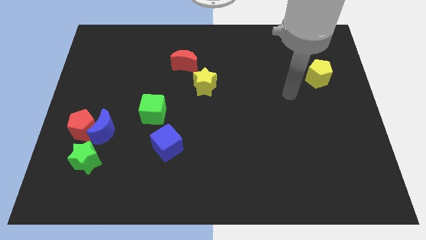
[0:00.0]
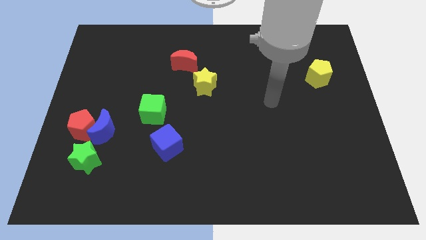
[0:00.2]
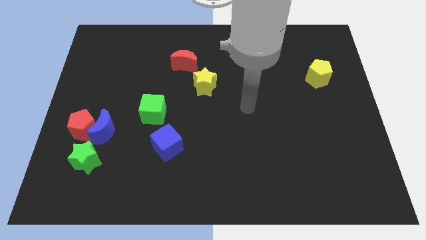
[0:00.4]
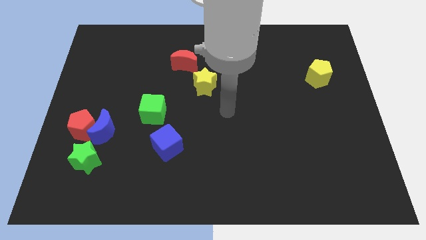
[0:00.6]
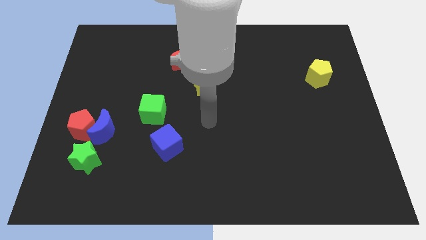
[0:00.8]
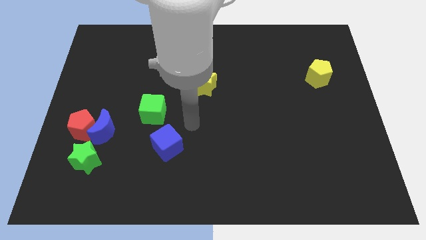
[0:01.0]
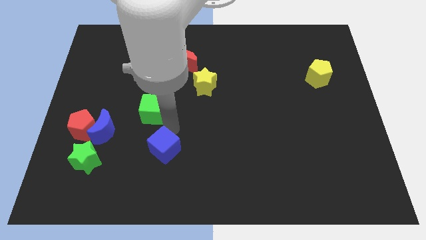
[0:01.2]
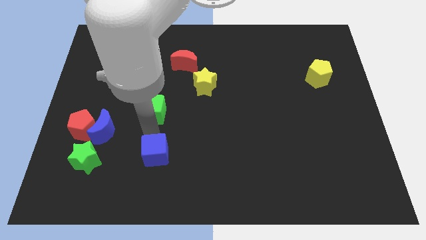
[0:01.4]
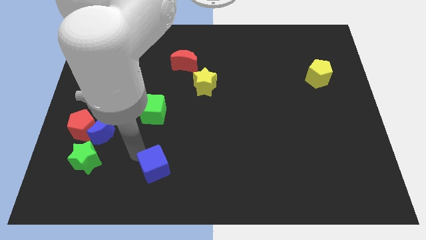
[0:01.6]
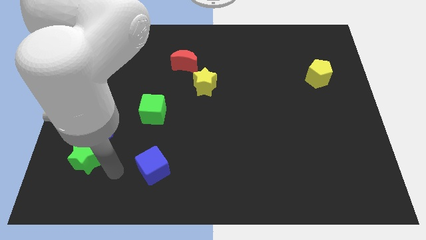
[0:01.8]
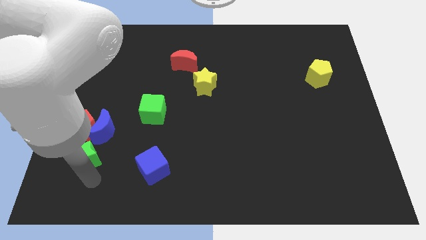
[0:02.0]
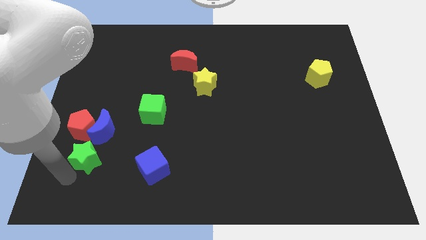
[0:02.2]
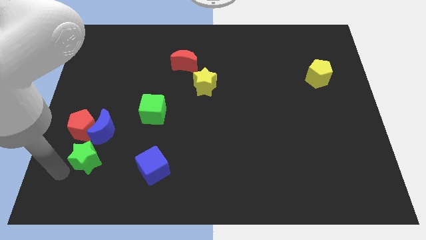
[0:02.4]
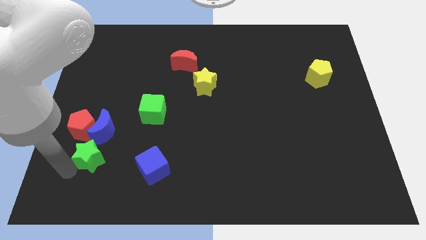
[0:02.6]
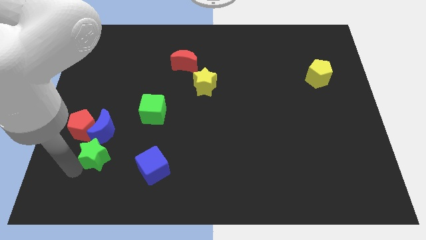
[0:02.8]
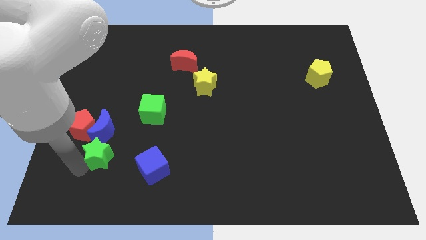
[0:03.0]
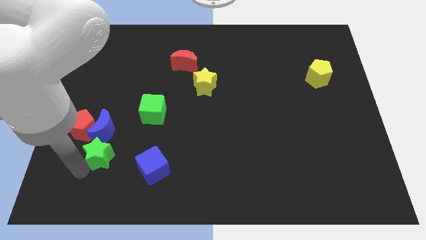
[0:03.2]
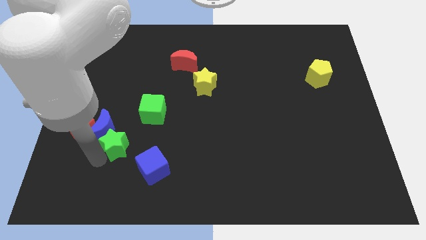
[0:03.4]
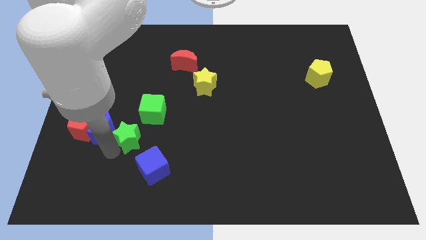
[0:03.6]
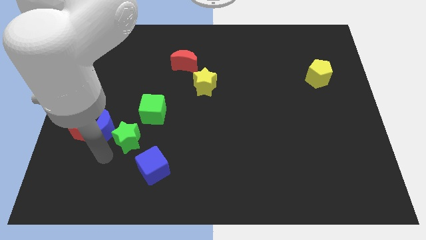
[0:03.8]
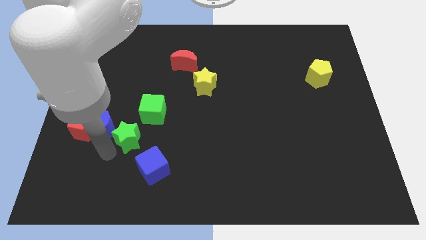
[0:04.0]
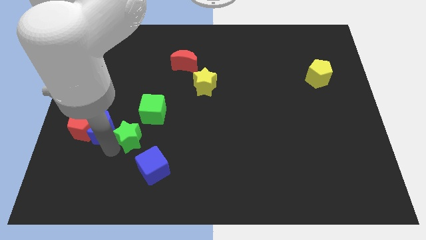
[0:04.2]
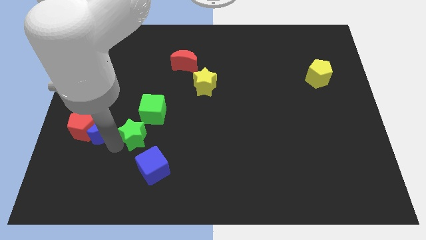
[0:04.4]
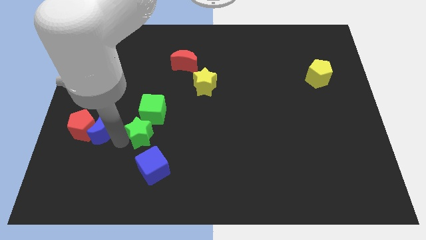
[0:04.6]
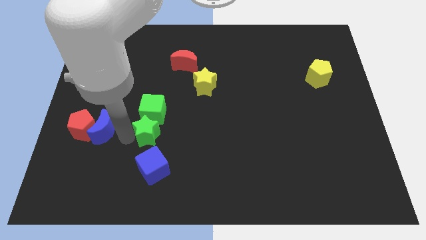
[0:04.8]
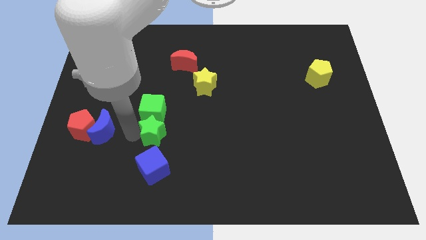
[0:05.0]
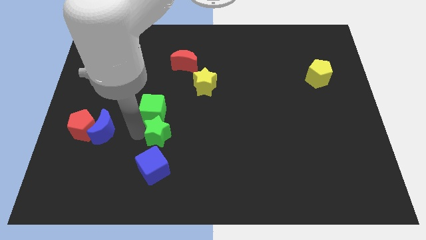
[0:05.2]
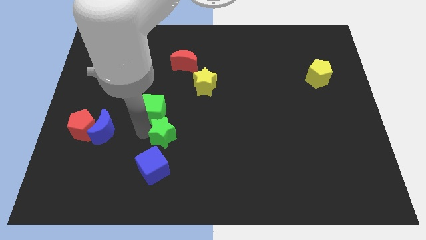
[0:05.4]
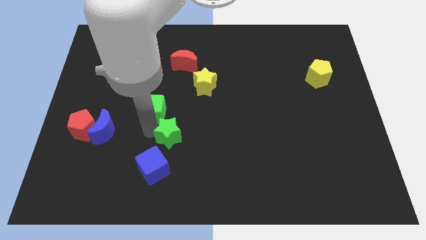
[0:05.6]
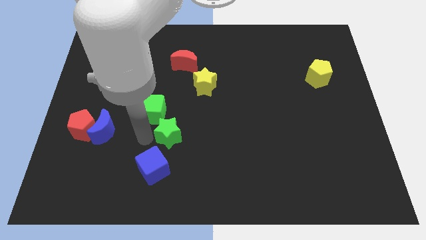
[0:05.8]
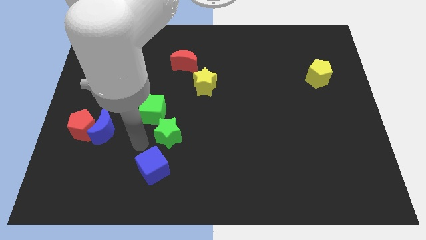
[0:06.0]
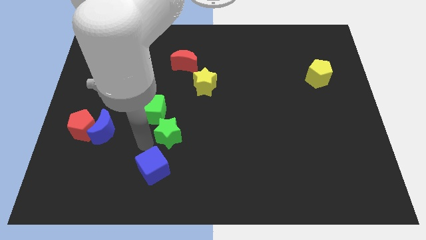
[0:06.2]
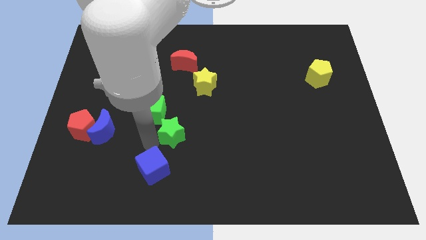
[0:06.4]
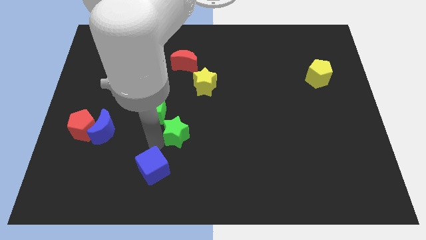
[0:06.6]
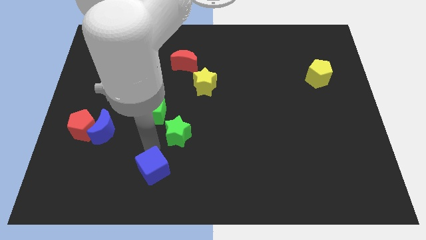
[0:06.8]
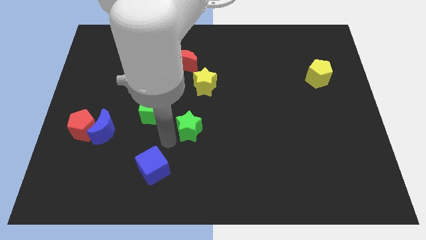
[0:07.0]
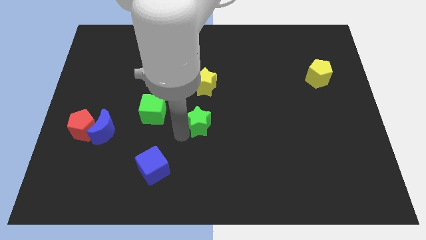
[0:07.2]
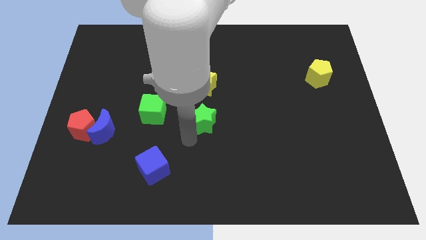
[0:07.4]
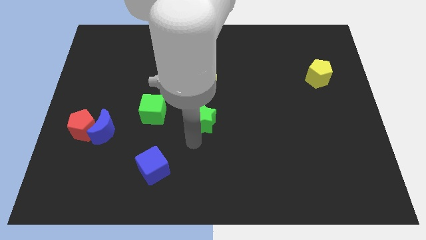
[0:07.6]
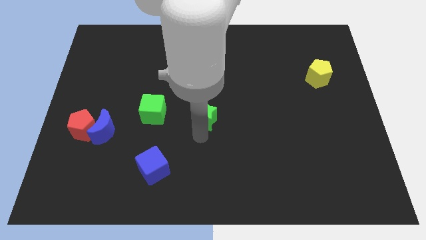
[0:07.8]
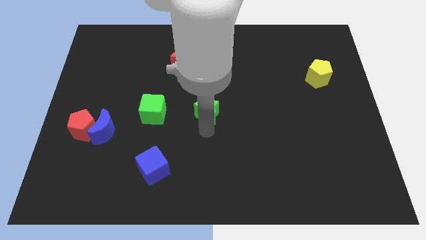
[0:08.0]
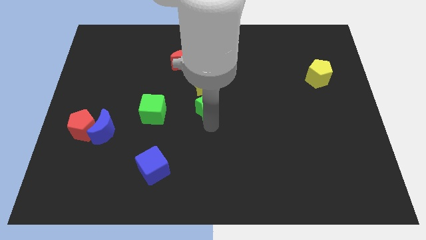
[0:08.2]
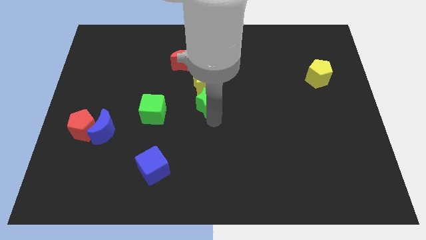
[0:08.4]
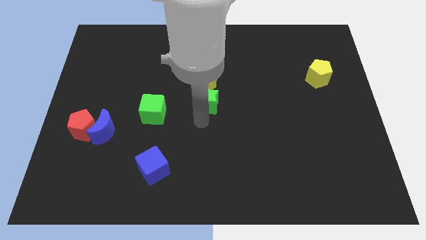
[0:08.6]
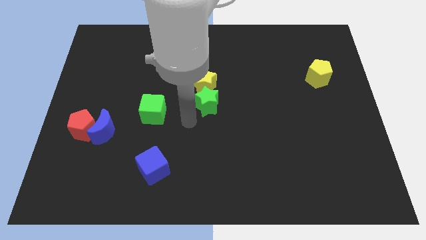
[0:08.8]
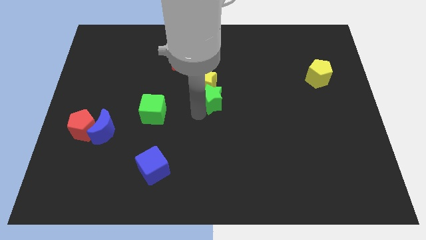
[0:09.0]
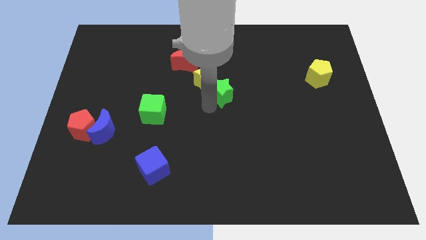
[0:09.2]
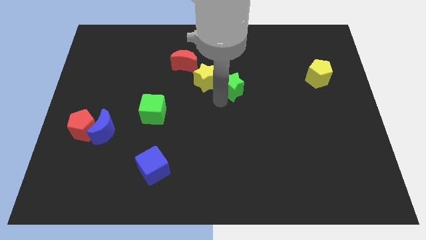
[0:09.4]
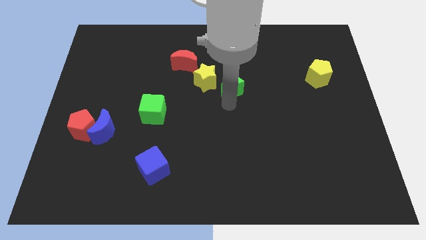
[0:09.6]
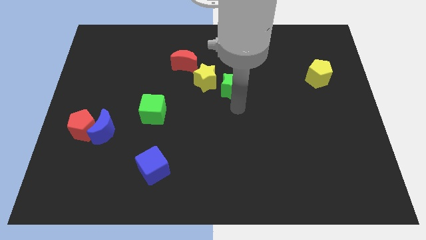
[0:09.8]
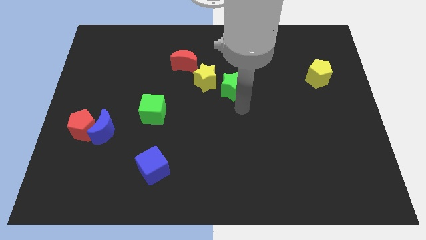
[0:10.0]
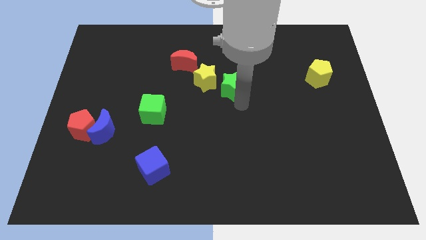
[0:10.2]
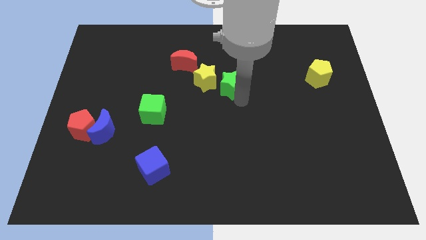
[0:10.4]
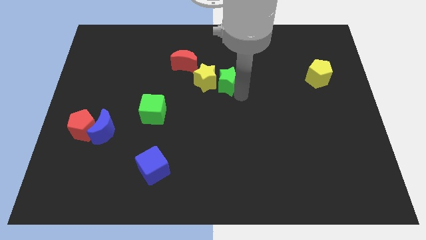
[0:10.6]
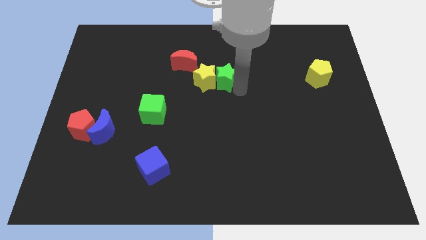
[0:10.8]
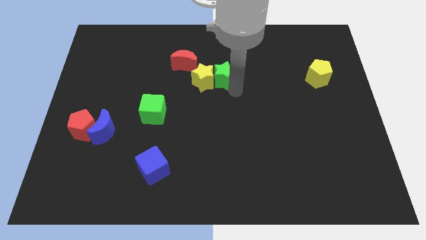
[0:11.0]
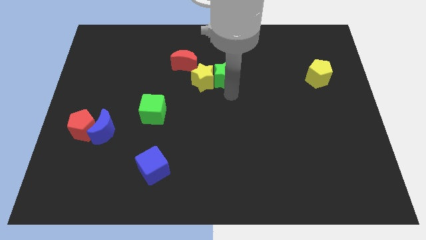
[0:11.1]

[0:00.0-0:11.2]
slide the green star right of the red moon

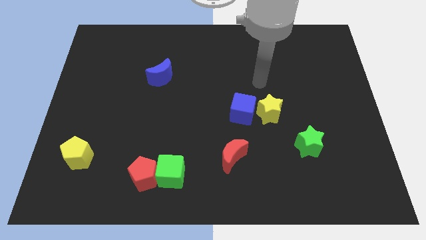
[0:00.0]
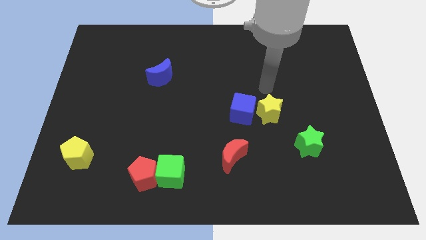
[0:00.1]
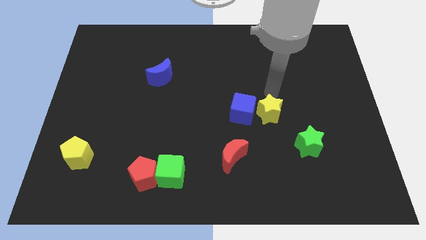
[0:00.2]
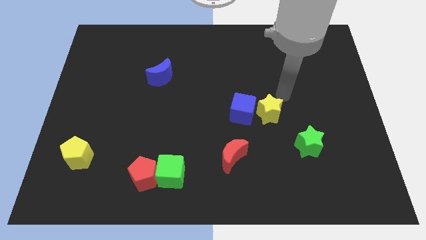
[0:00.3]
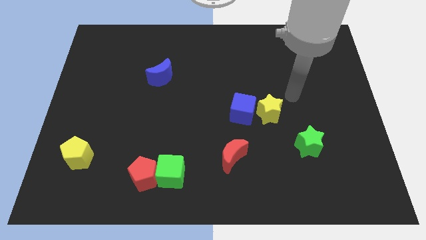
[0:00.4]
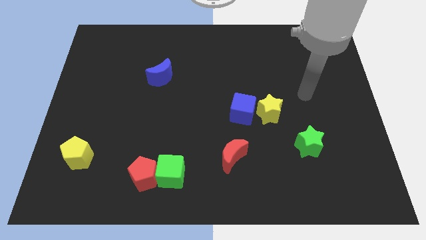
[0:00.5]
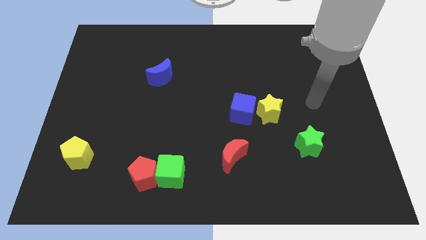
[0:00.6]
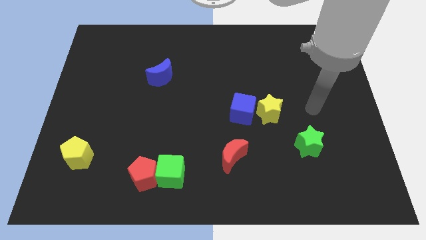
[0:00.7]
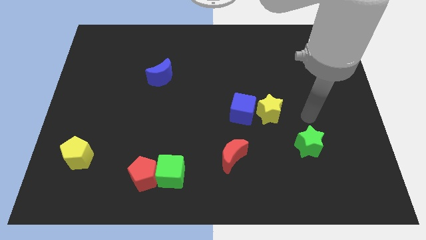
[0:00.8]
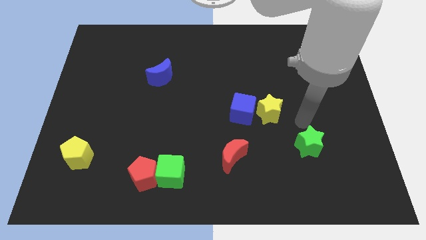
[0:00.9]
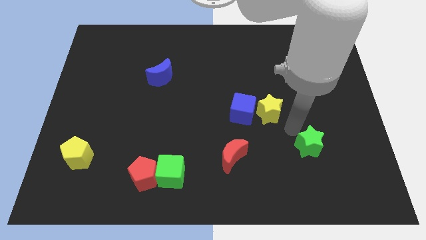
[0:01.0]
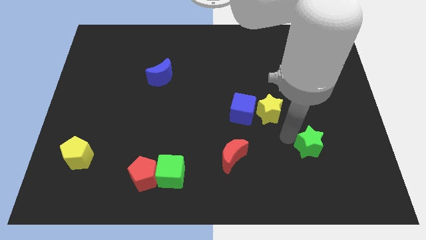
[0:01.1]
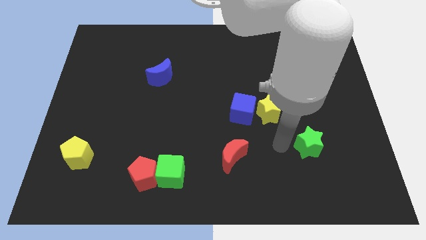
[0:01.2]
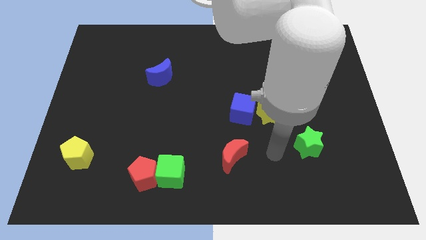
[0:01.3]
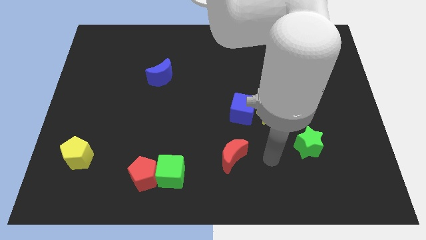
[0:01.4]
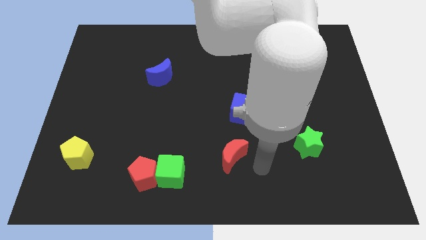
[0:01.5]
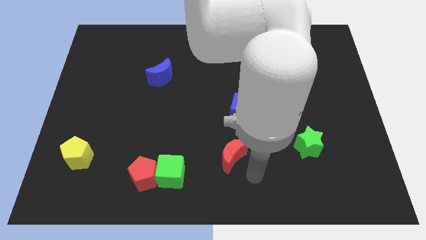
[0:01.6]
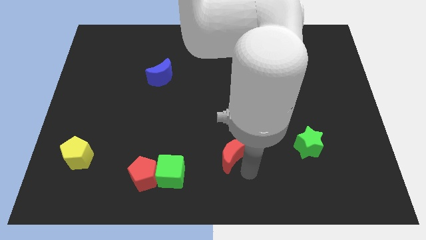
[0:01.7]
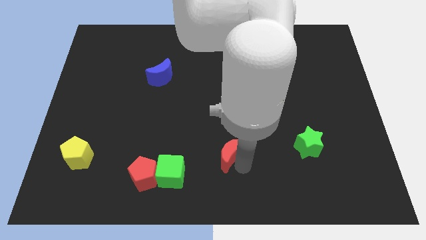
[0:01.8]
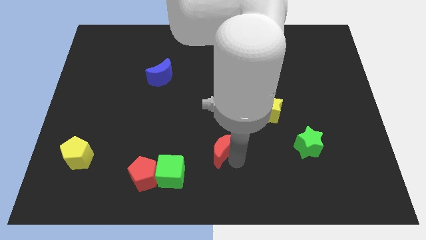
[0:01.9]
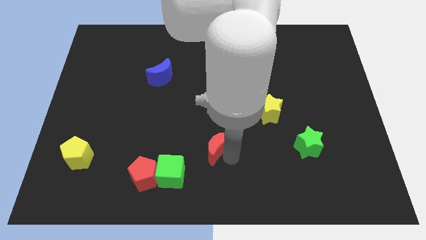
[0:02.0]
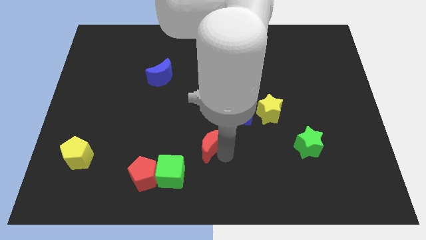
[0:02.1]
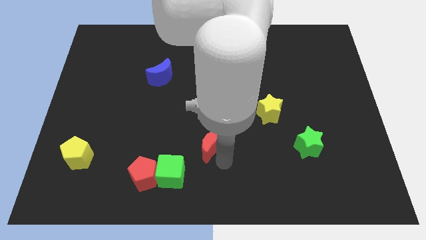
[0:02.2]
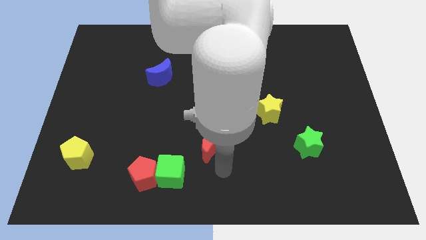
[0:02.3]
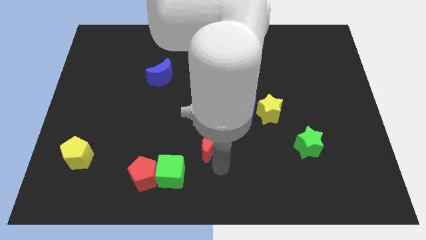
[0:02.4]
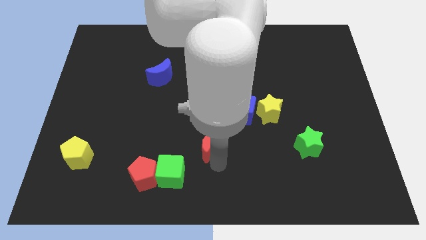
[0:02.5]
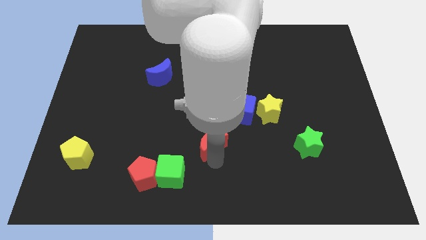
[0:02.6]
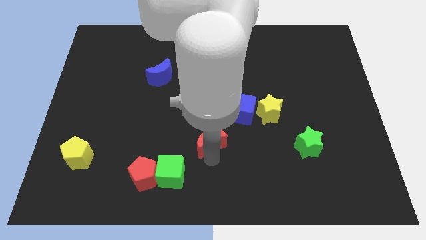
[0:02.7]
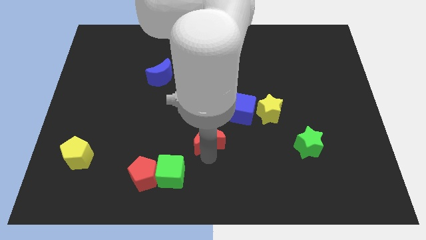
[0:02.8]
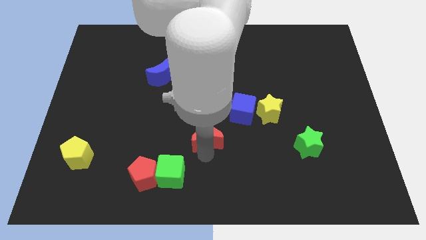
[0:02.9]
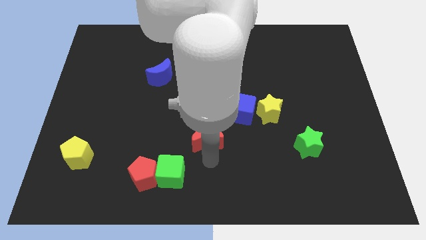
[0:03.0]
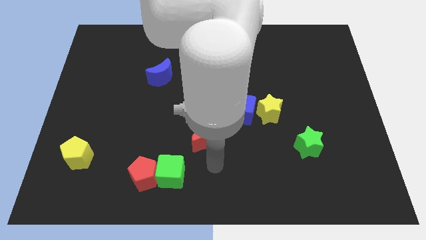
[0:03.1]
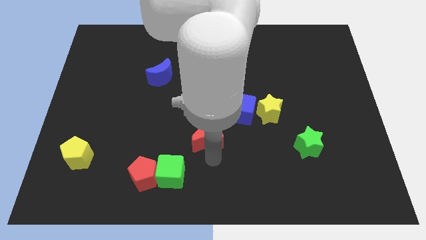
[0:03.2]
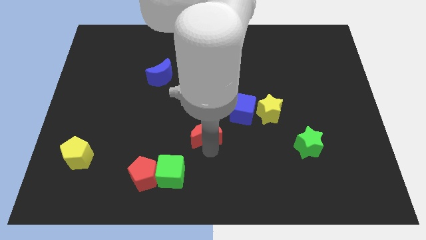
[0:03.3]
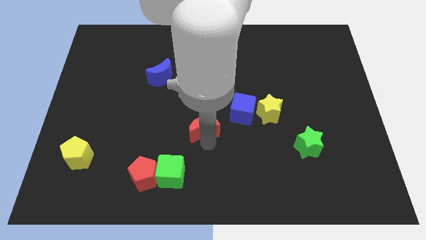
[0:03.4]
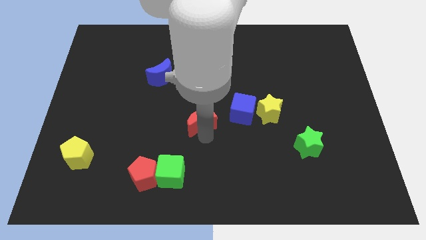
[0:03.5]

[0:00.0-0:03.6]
slide the red moon left of the blue cube
